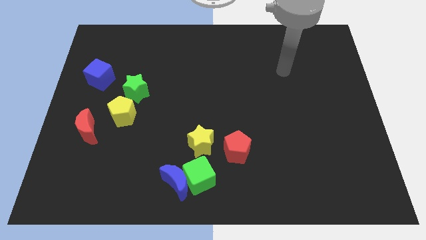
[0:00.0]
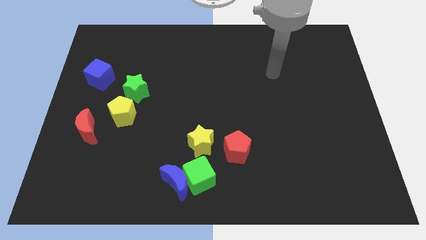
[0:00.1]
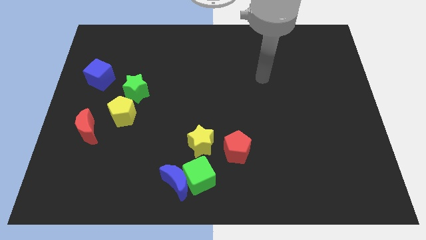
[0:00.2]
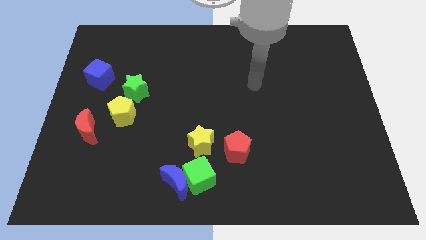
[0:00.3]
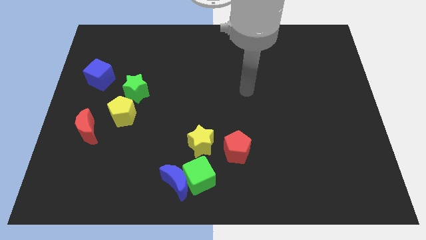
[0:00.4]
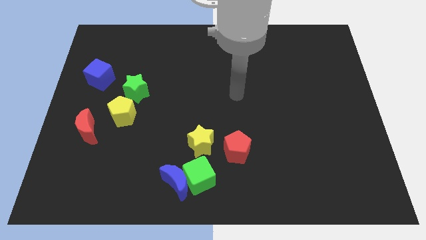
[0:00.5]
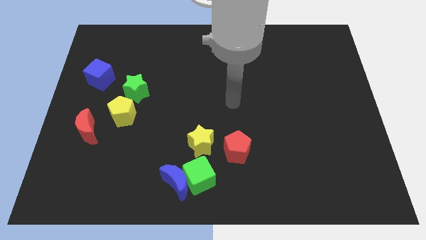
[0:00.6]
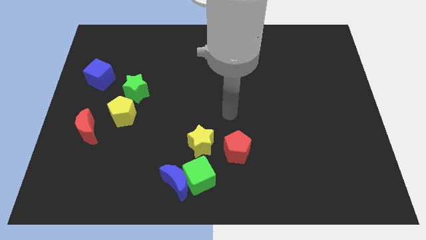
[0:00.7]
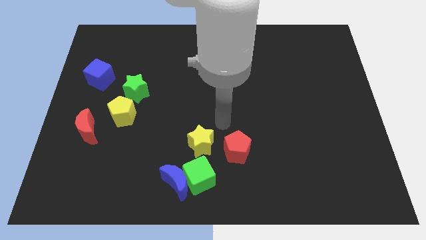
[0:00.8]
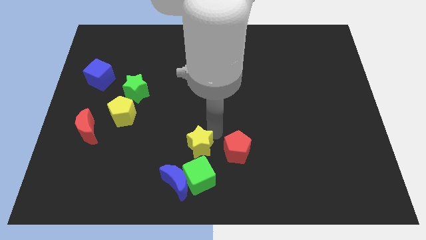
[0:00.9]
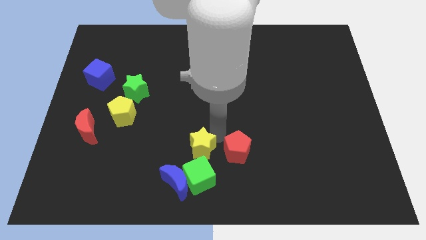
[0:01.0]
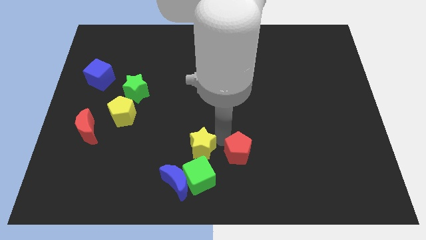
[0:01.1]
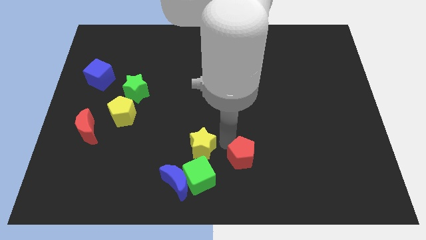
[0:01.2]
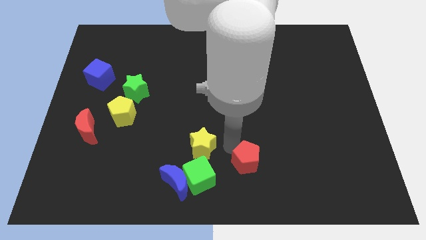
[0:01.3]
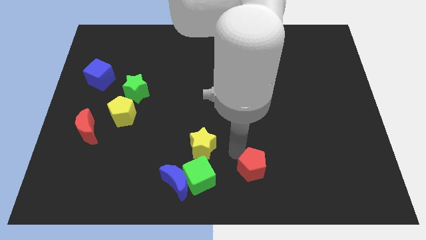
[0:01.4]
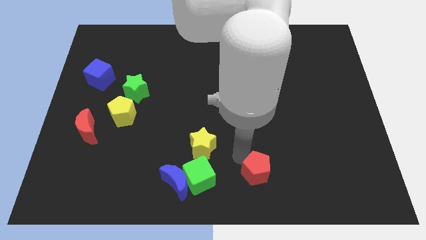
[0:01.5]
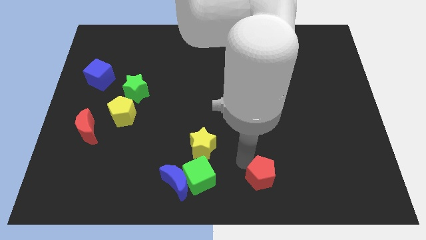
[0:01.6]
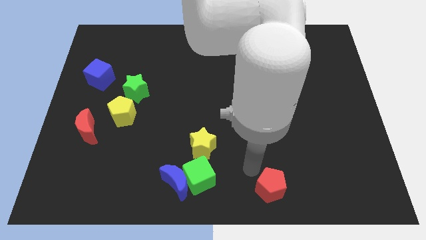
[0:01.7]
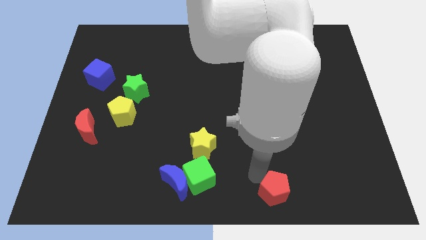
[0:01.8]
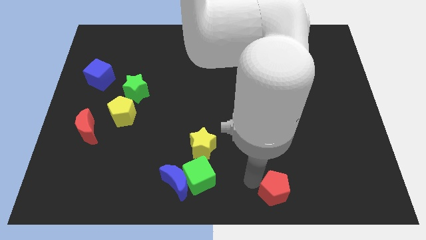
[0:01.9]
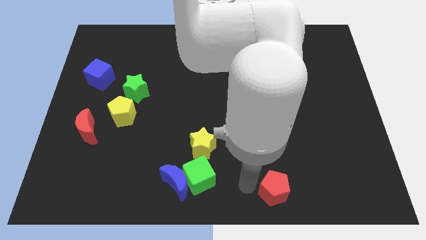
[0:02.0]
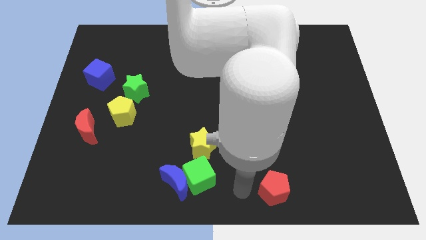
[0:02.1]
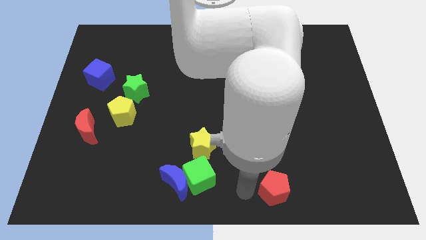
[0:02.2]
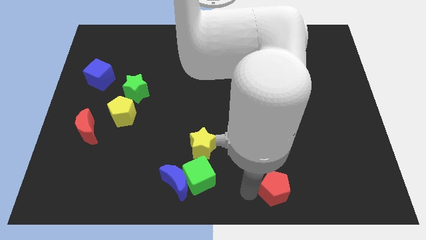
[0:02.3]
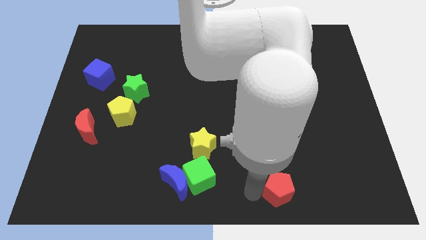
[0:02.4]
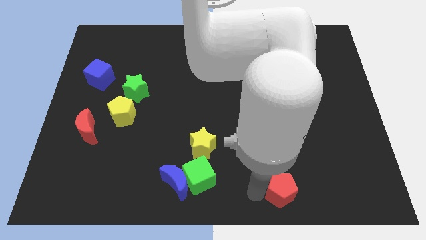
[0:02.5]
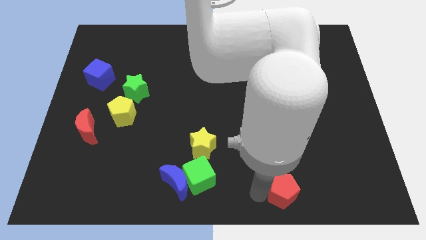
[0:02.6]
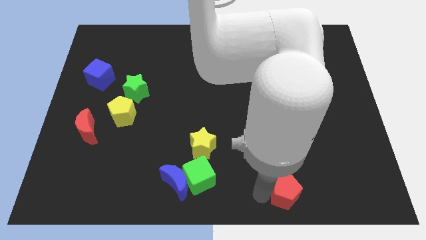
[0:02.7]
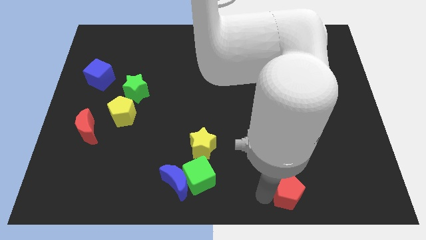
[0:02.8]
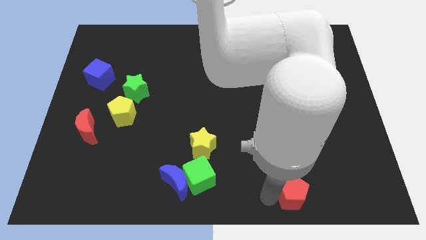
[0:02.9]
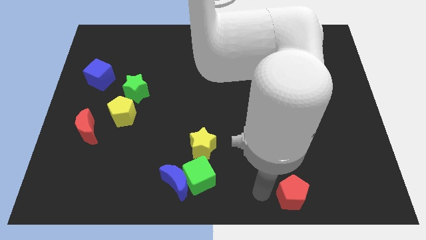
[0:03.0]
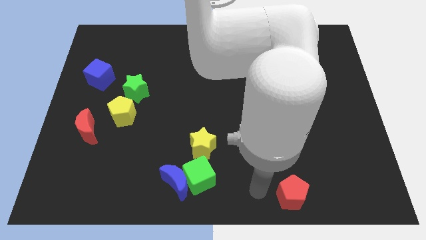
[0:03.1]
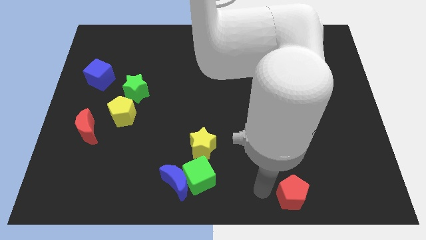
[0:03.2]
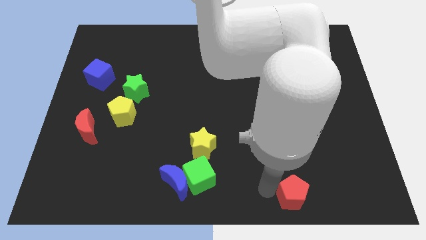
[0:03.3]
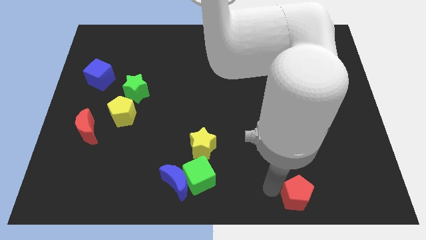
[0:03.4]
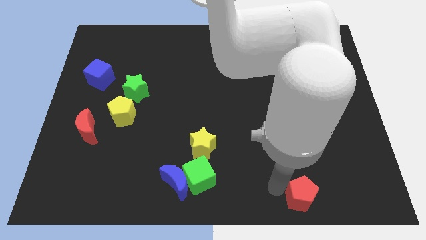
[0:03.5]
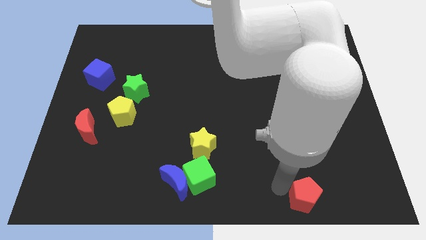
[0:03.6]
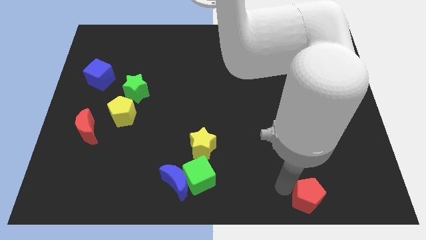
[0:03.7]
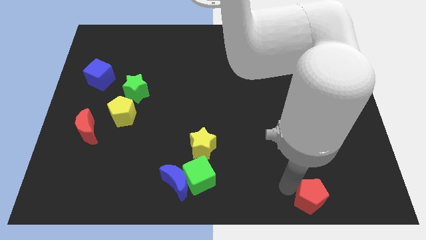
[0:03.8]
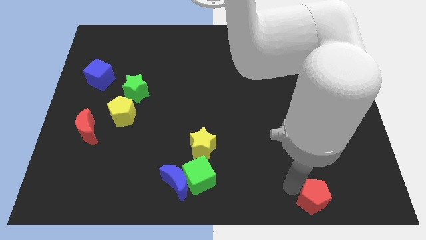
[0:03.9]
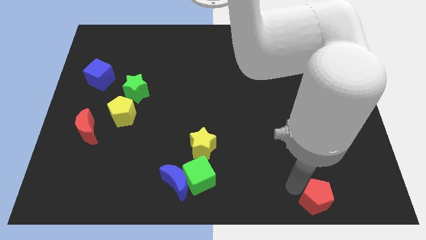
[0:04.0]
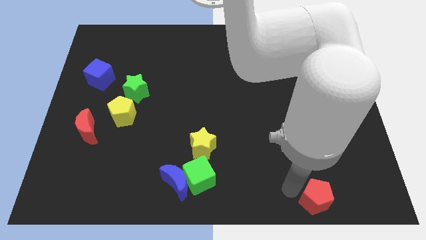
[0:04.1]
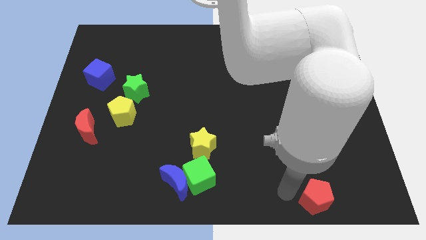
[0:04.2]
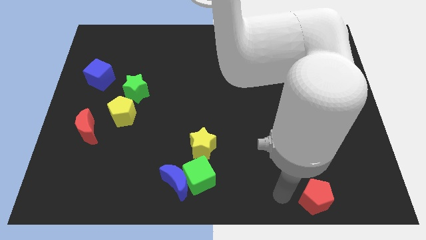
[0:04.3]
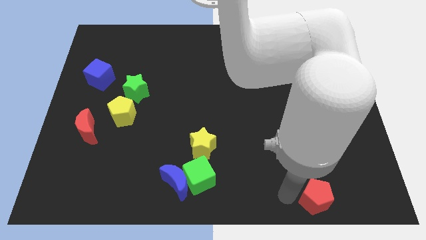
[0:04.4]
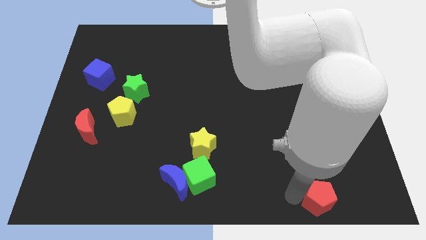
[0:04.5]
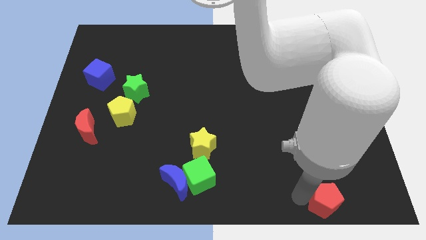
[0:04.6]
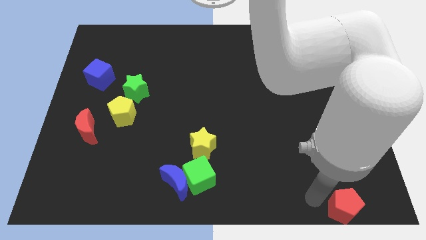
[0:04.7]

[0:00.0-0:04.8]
put the red pentagon to the bottom right

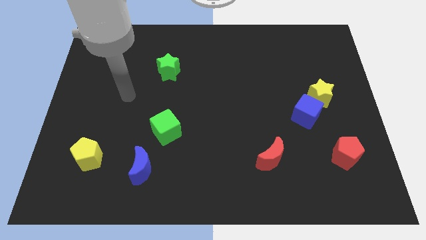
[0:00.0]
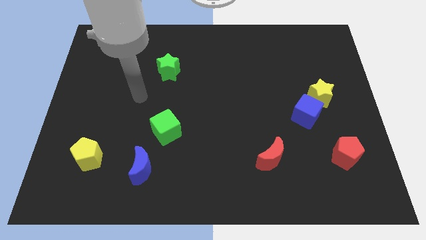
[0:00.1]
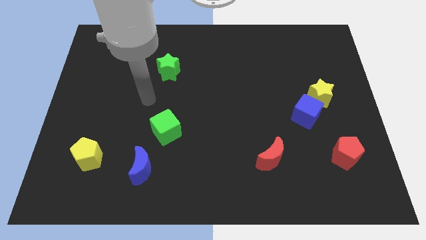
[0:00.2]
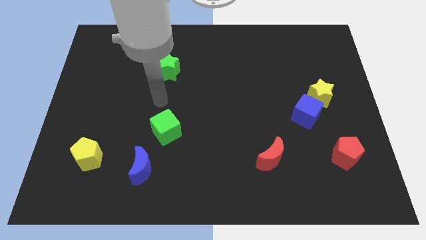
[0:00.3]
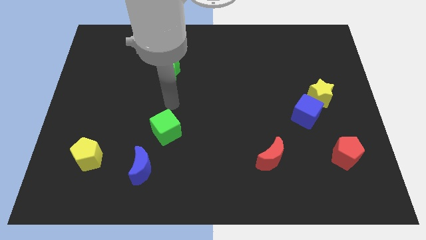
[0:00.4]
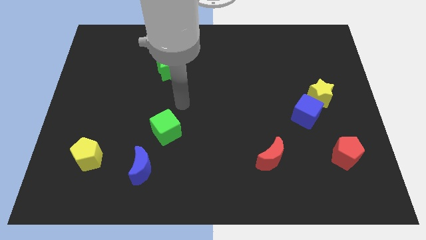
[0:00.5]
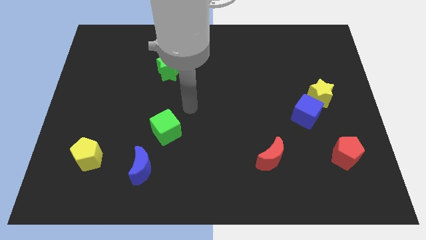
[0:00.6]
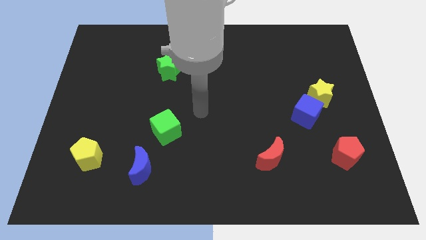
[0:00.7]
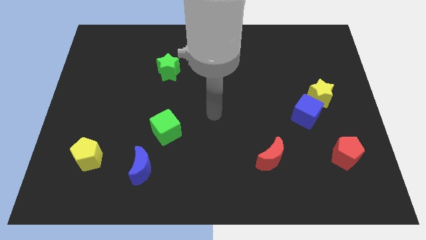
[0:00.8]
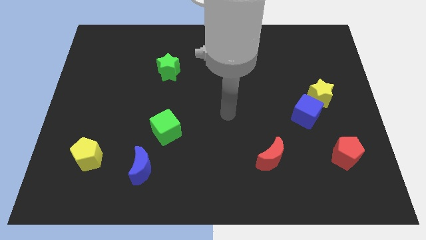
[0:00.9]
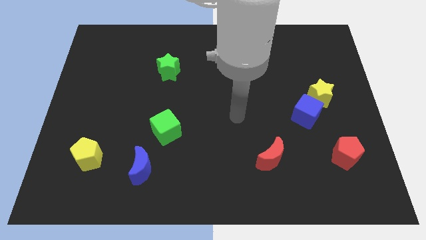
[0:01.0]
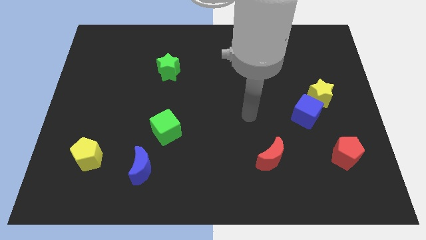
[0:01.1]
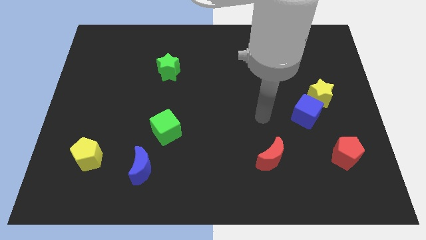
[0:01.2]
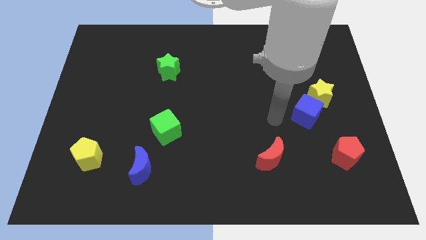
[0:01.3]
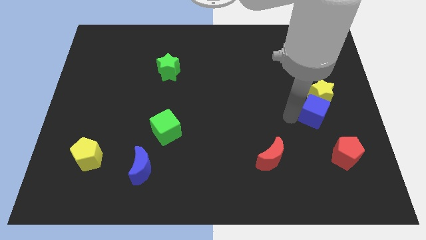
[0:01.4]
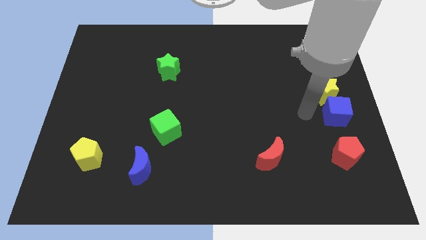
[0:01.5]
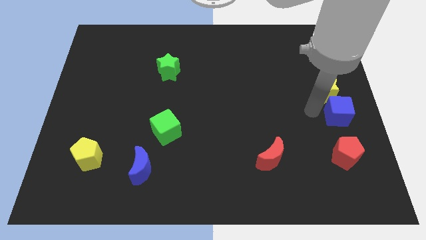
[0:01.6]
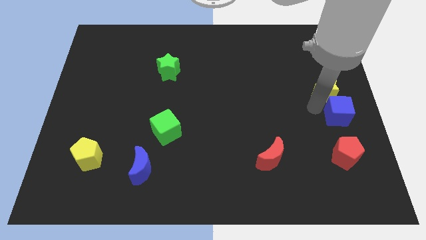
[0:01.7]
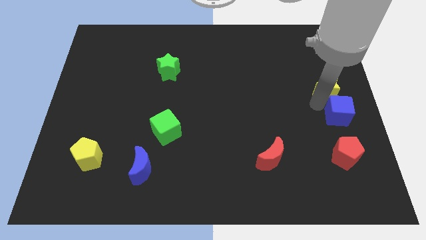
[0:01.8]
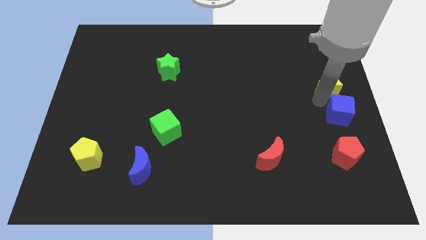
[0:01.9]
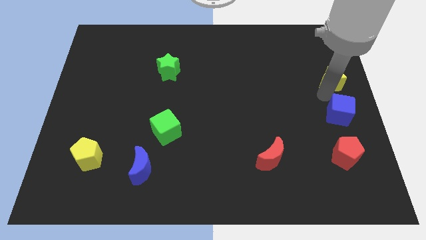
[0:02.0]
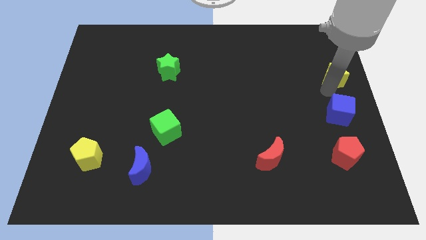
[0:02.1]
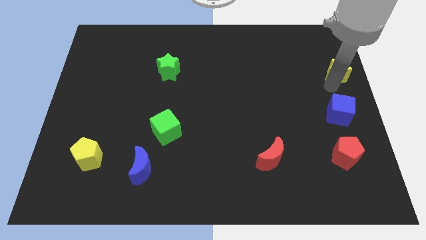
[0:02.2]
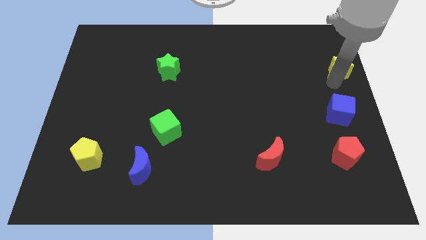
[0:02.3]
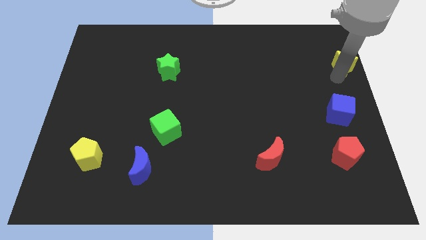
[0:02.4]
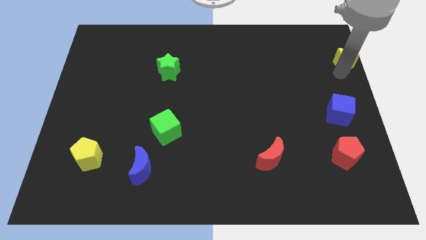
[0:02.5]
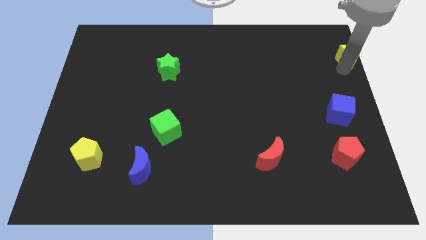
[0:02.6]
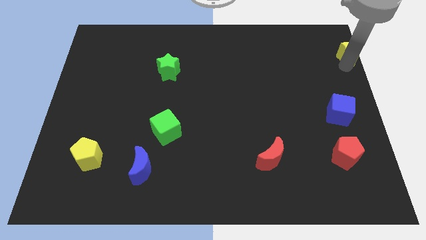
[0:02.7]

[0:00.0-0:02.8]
push the yellow star to the upper right corner

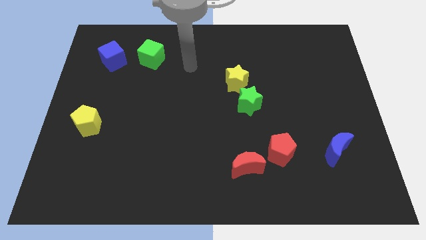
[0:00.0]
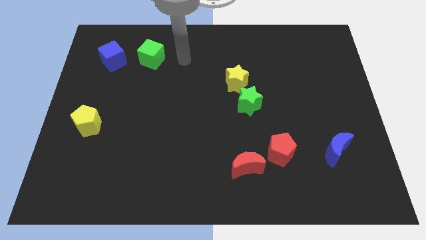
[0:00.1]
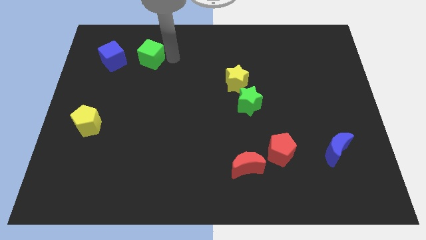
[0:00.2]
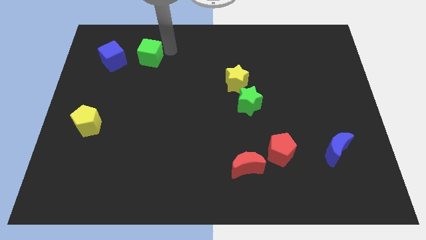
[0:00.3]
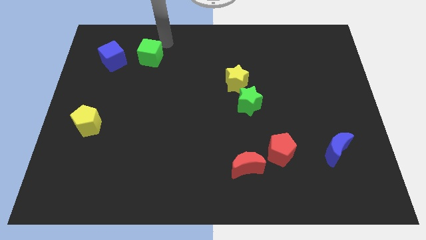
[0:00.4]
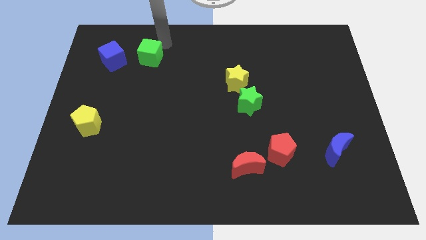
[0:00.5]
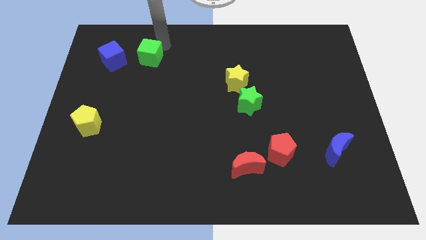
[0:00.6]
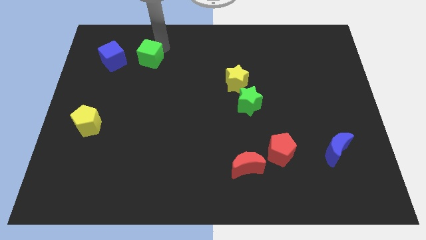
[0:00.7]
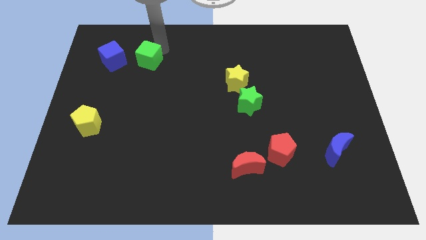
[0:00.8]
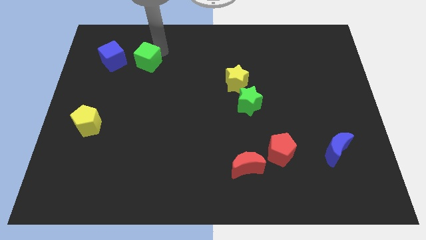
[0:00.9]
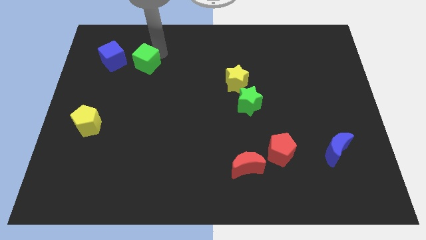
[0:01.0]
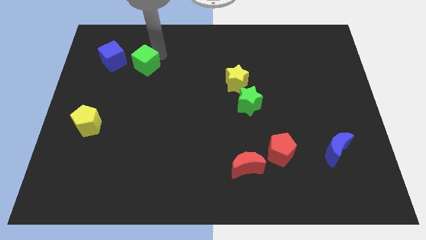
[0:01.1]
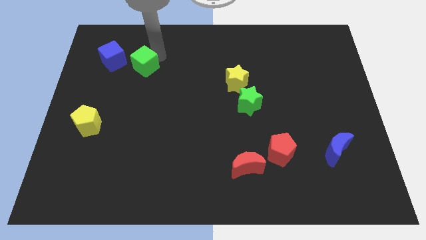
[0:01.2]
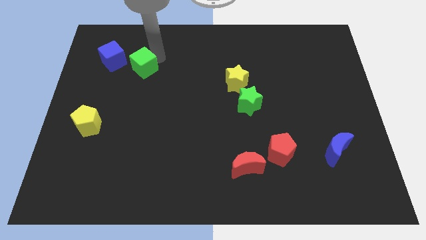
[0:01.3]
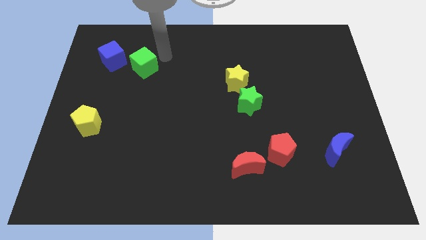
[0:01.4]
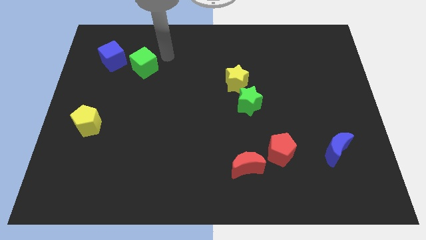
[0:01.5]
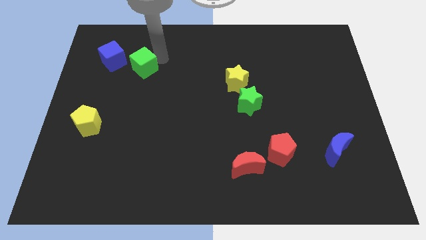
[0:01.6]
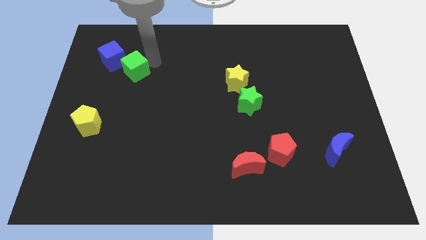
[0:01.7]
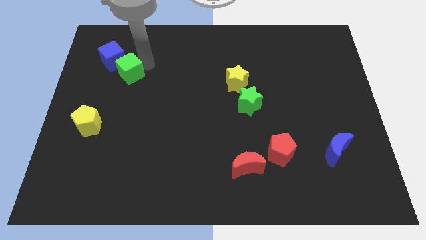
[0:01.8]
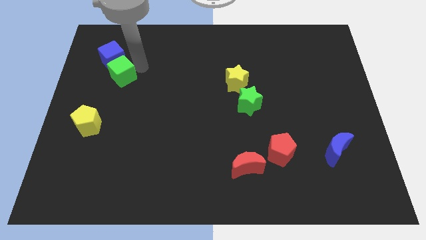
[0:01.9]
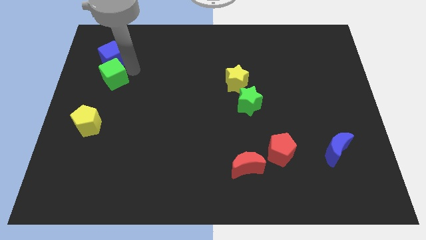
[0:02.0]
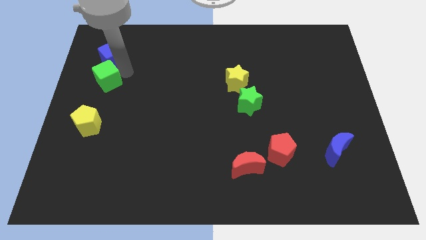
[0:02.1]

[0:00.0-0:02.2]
put the green cube to the left side of the board
